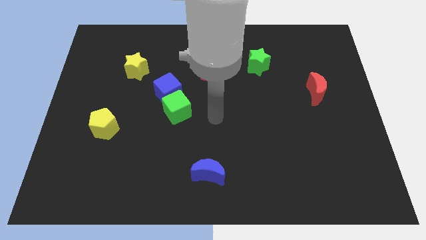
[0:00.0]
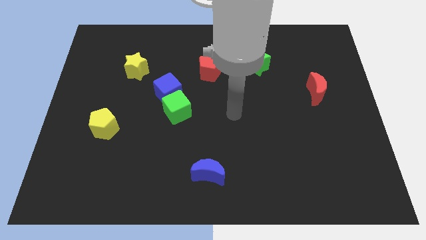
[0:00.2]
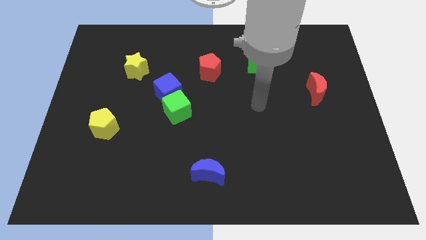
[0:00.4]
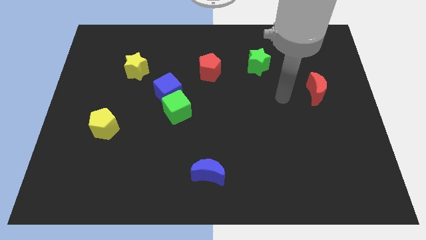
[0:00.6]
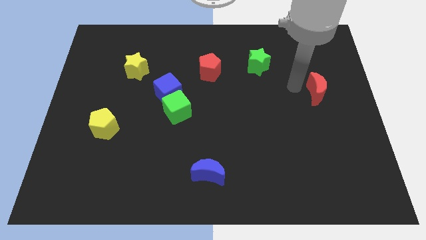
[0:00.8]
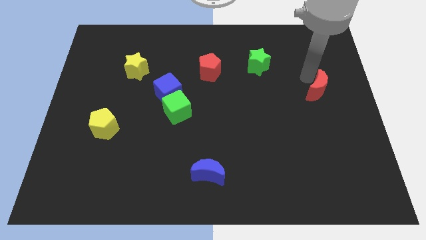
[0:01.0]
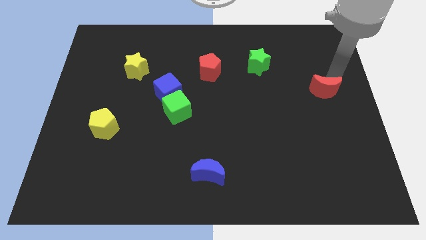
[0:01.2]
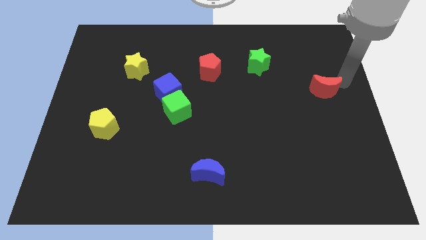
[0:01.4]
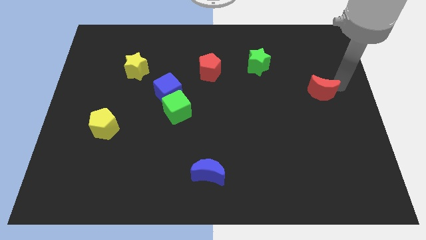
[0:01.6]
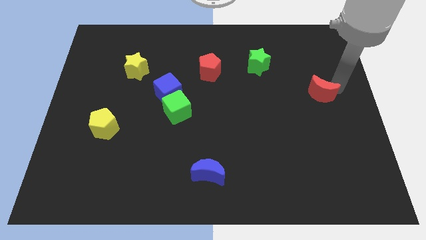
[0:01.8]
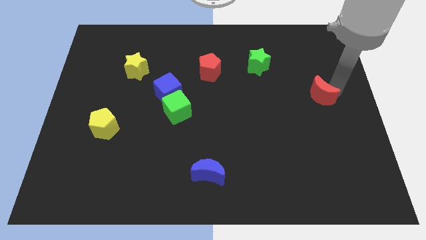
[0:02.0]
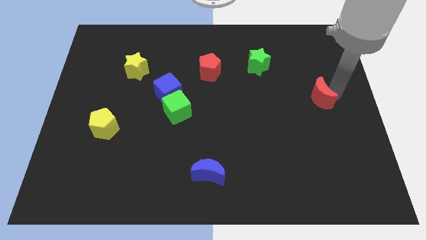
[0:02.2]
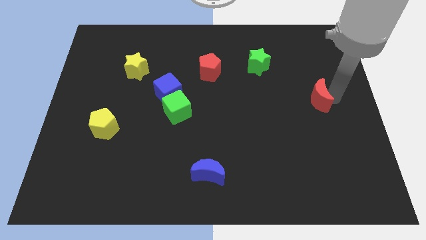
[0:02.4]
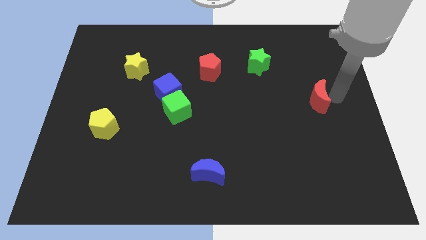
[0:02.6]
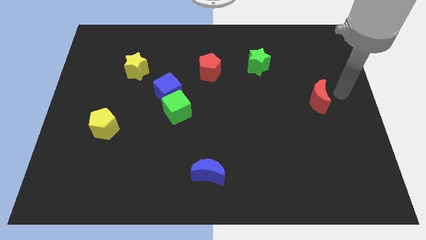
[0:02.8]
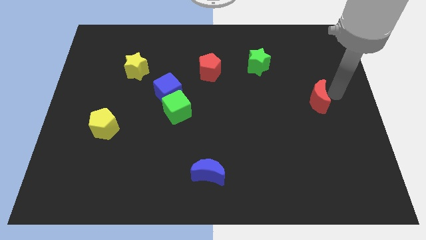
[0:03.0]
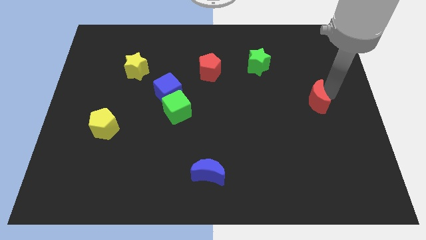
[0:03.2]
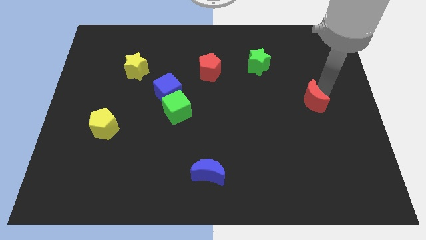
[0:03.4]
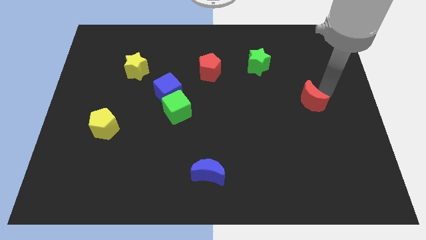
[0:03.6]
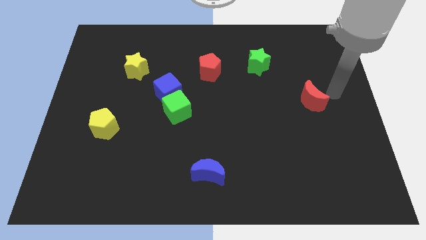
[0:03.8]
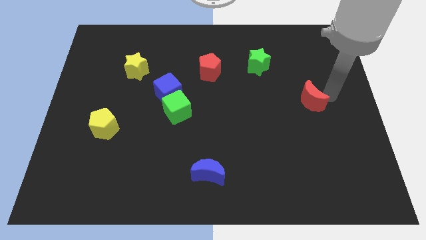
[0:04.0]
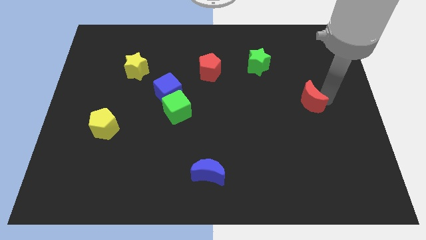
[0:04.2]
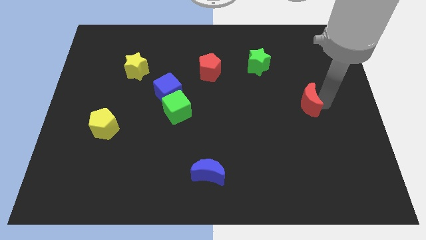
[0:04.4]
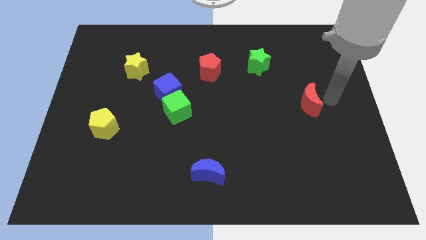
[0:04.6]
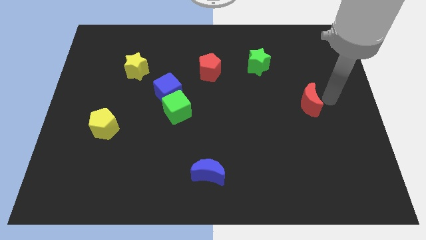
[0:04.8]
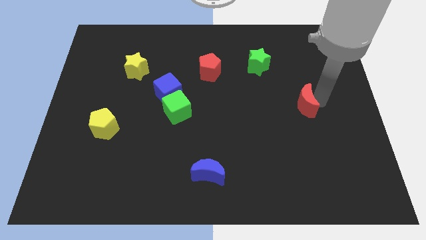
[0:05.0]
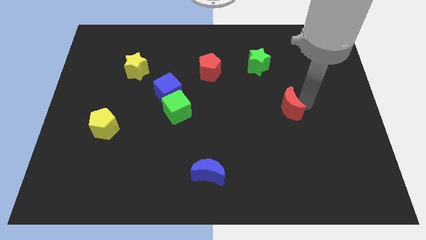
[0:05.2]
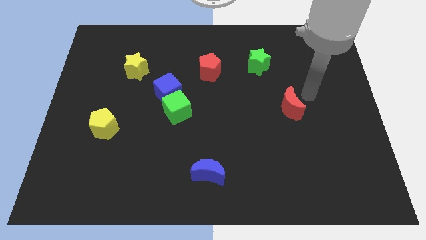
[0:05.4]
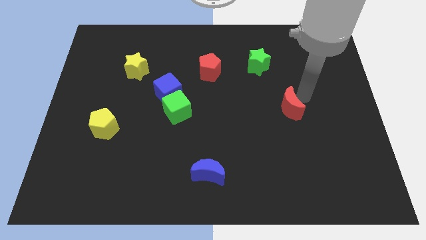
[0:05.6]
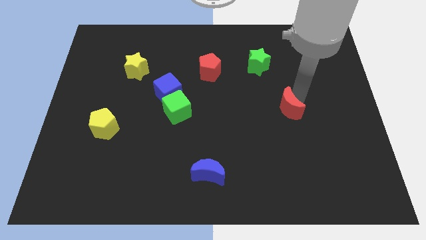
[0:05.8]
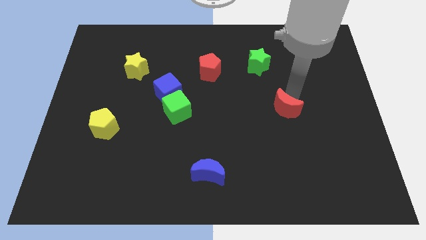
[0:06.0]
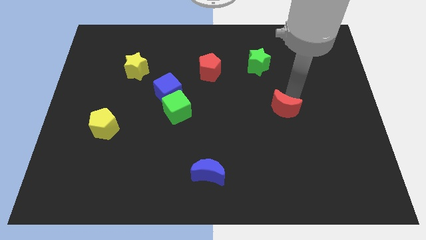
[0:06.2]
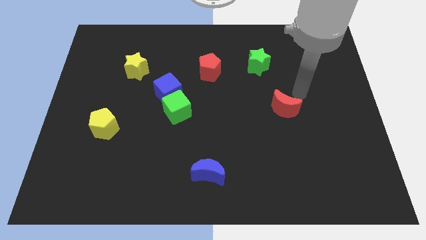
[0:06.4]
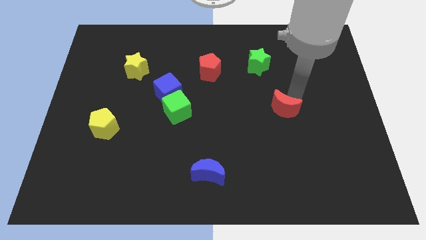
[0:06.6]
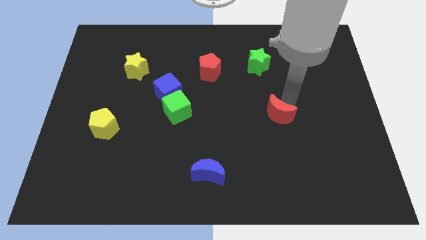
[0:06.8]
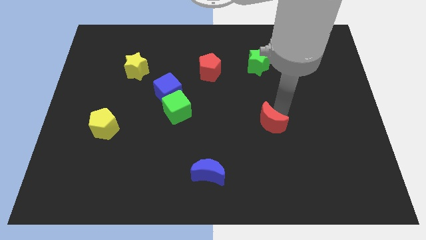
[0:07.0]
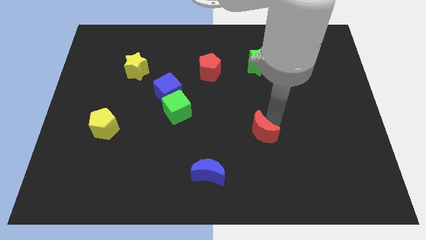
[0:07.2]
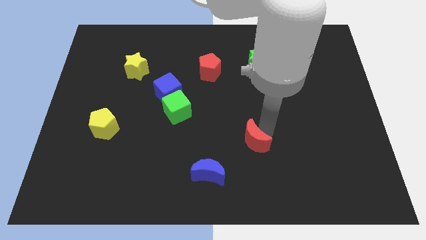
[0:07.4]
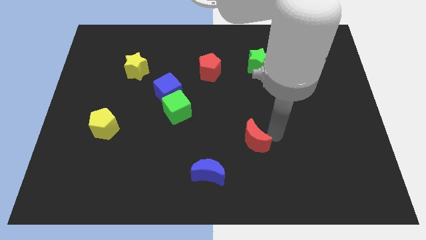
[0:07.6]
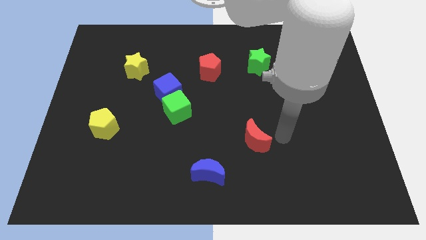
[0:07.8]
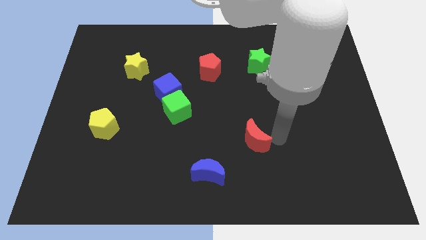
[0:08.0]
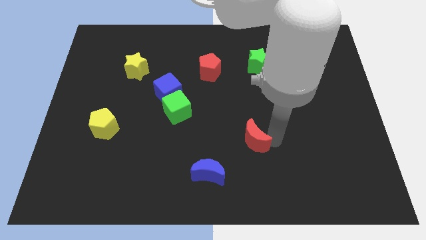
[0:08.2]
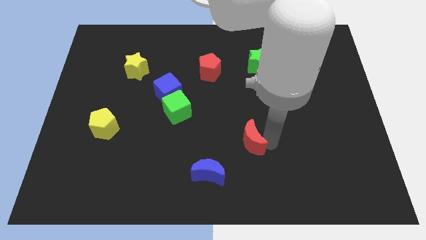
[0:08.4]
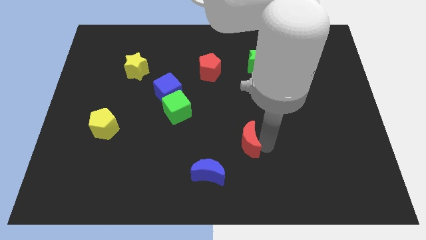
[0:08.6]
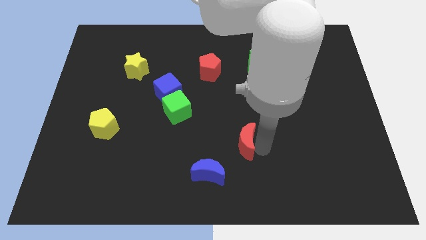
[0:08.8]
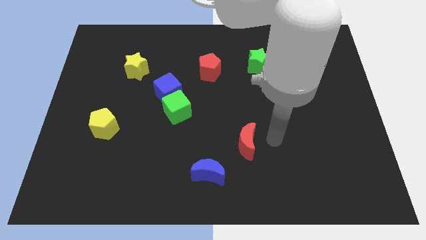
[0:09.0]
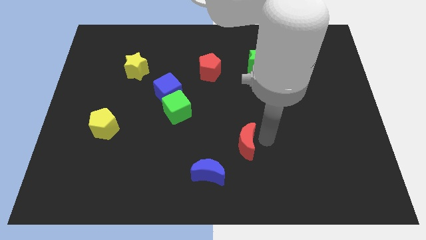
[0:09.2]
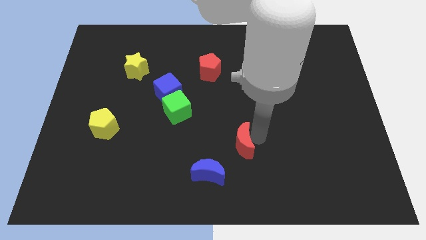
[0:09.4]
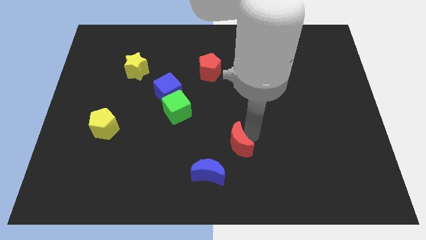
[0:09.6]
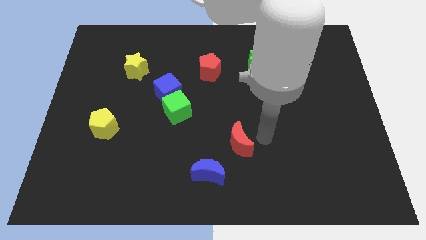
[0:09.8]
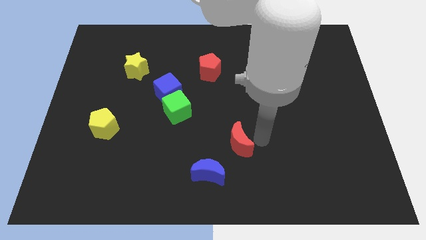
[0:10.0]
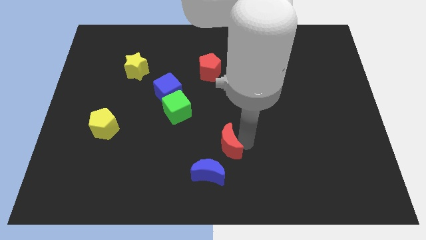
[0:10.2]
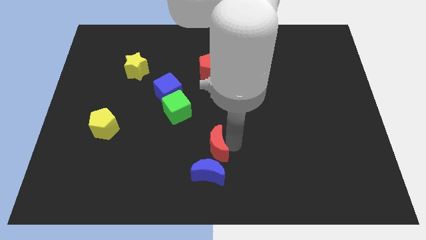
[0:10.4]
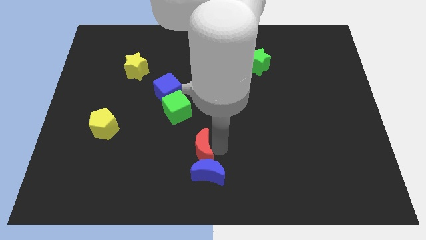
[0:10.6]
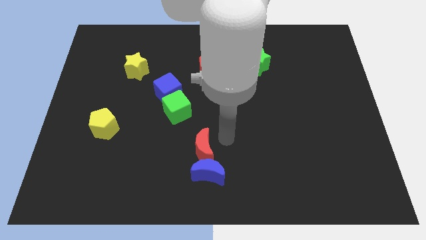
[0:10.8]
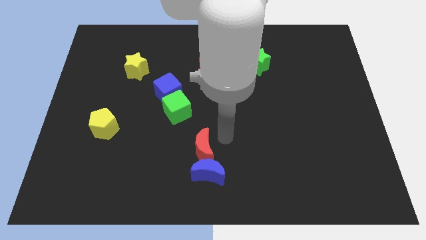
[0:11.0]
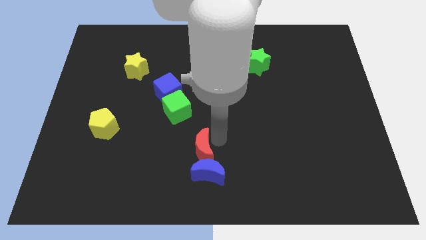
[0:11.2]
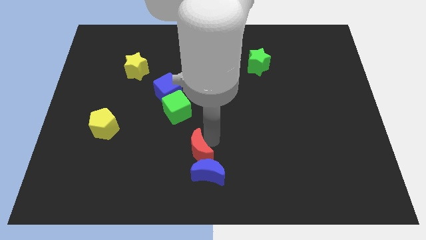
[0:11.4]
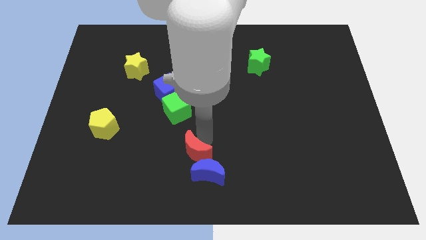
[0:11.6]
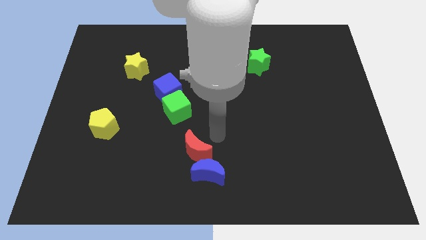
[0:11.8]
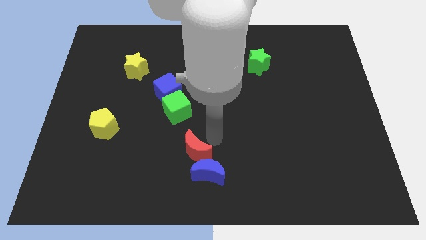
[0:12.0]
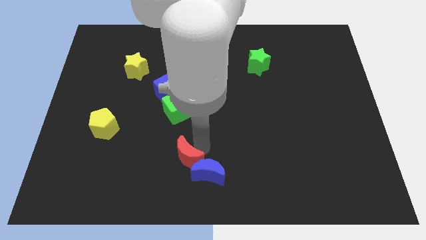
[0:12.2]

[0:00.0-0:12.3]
push the red moon left of the blue moon
